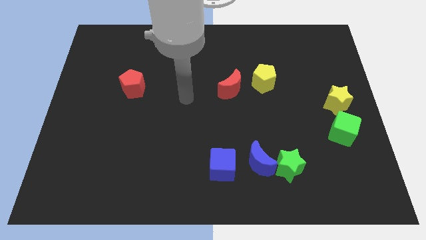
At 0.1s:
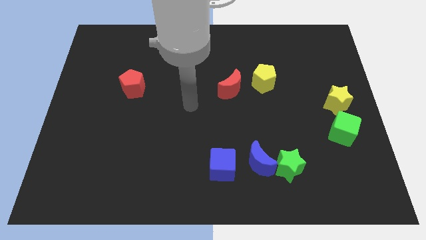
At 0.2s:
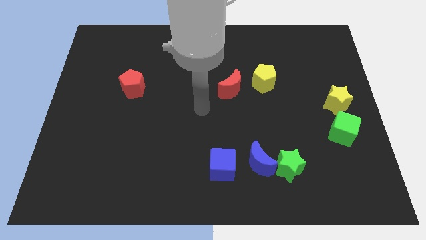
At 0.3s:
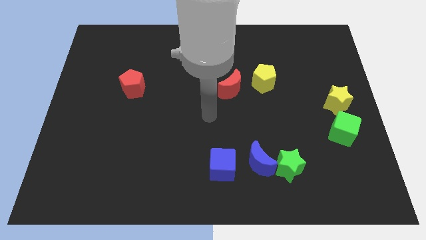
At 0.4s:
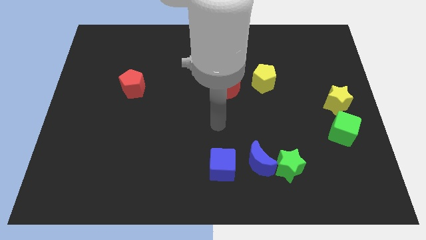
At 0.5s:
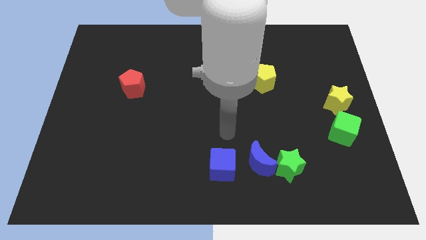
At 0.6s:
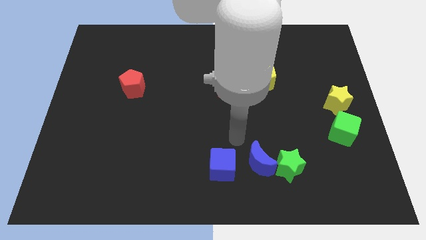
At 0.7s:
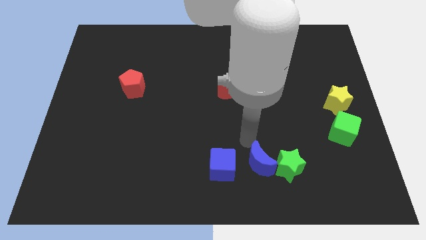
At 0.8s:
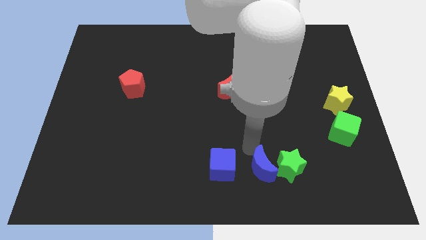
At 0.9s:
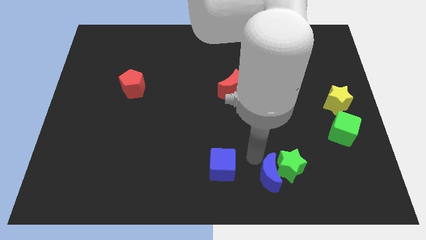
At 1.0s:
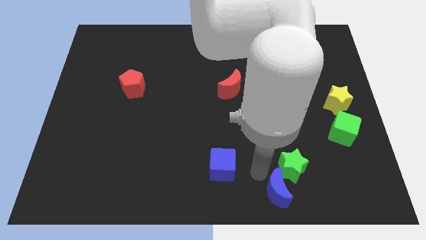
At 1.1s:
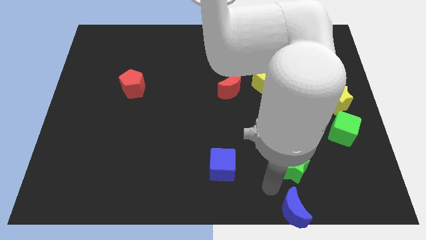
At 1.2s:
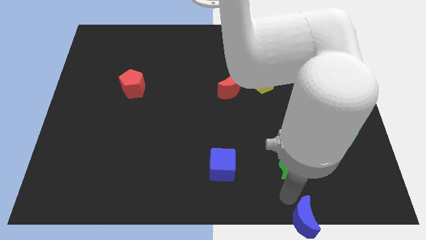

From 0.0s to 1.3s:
move the green star away from the blue moon

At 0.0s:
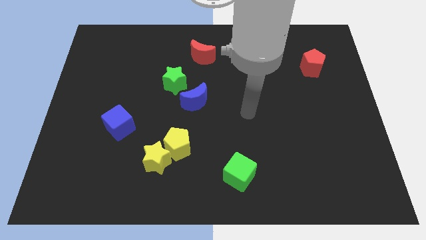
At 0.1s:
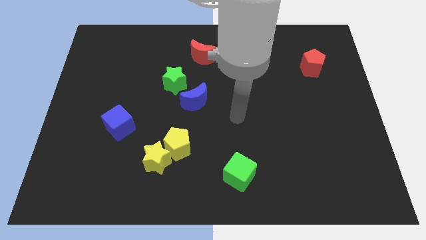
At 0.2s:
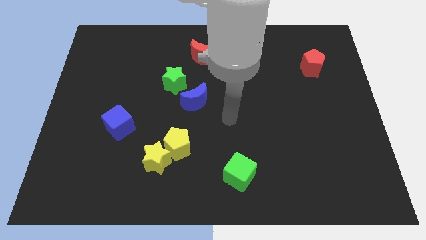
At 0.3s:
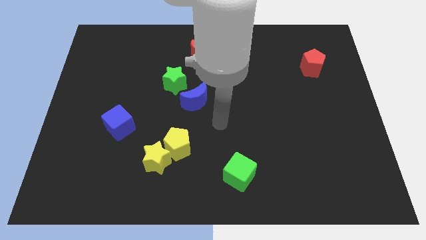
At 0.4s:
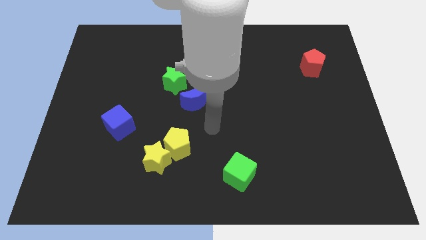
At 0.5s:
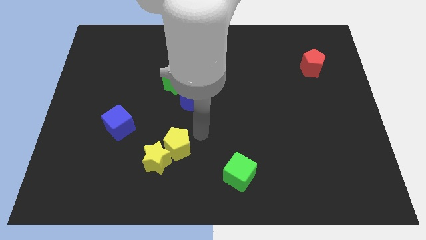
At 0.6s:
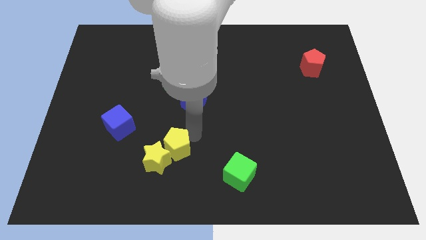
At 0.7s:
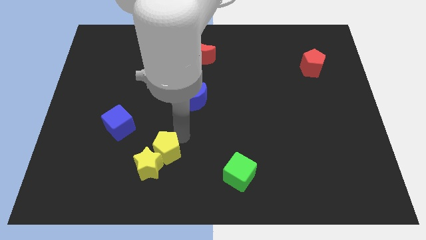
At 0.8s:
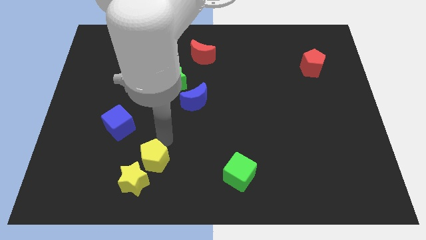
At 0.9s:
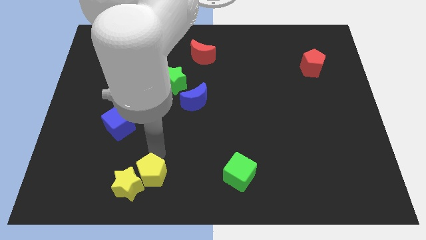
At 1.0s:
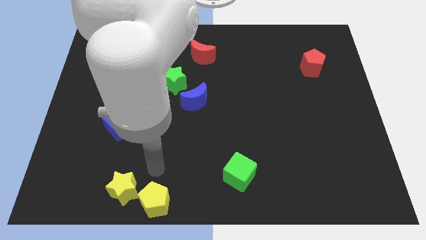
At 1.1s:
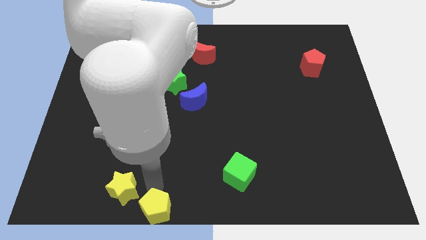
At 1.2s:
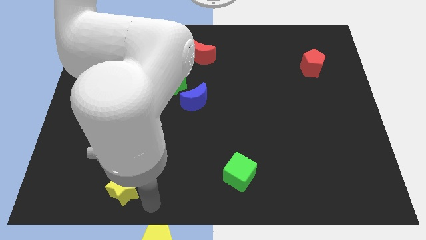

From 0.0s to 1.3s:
pull the yellow star apart from the yellow pentagon

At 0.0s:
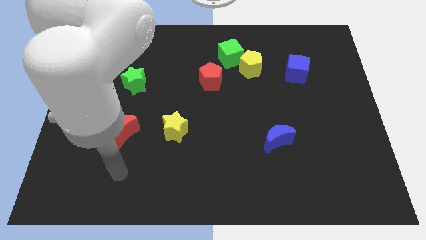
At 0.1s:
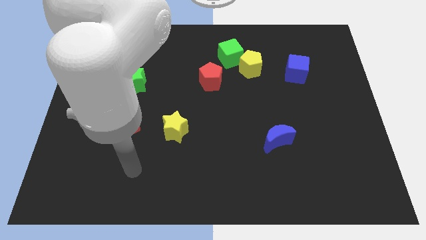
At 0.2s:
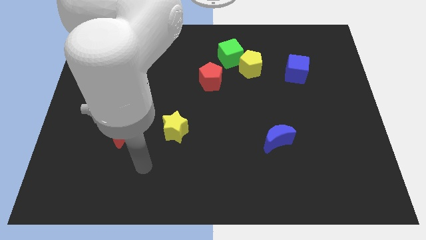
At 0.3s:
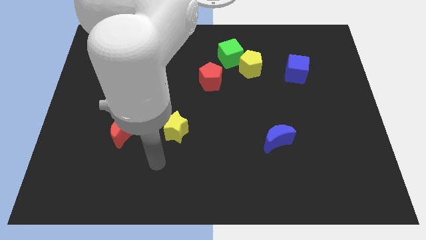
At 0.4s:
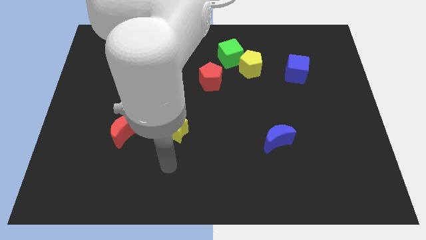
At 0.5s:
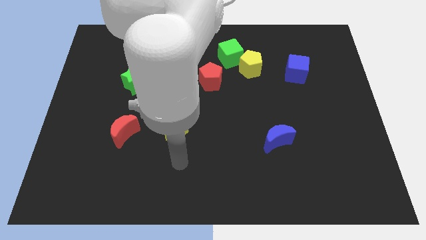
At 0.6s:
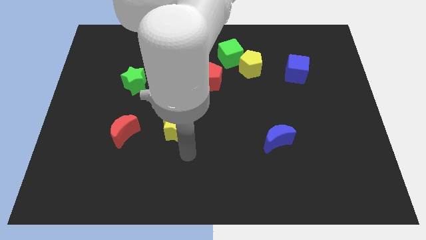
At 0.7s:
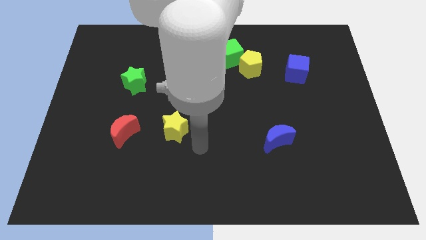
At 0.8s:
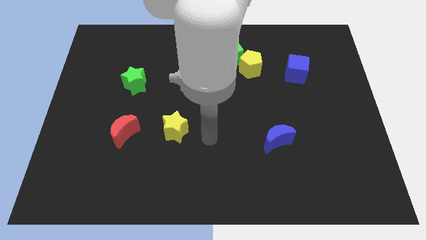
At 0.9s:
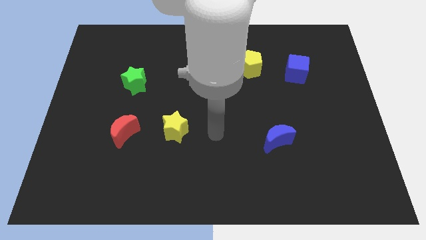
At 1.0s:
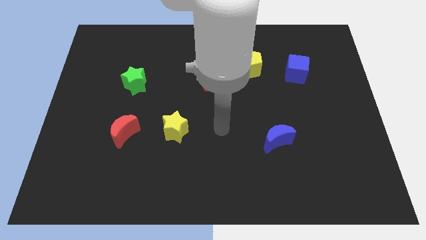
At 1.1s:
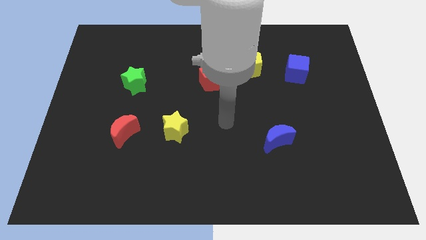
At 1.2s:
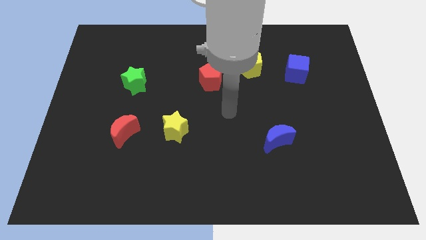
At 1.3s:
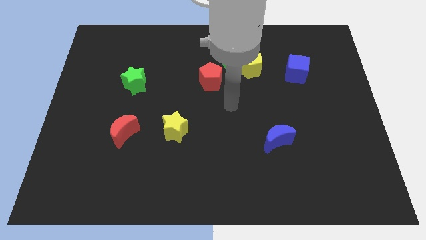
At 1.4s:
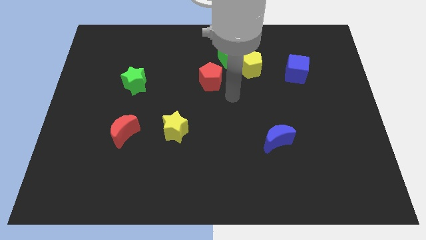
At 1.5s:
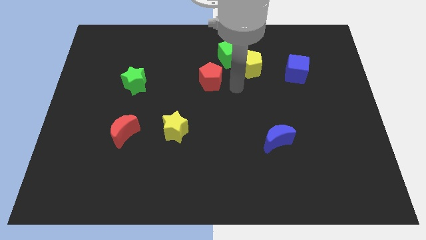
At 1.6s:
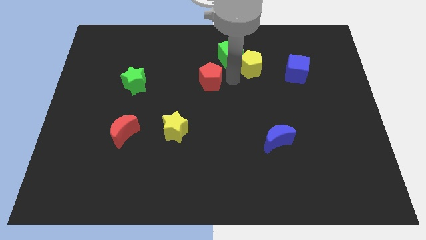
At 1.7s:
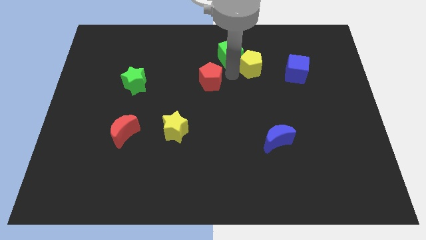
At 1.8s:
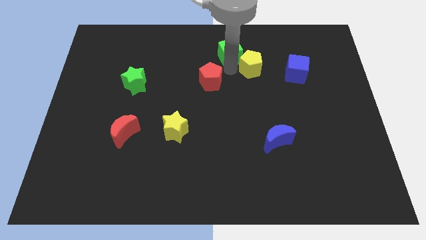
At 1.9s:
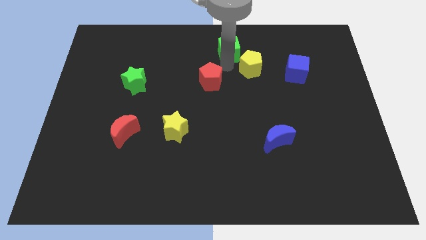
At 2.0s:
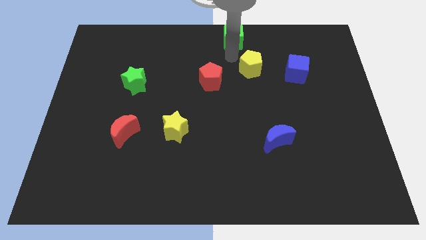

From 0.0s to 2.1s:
pull the yellow pentagon apart from the green cube

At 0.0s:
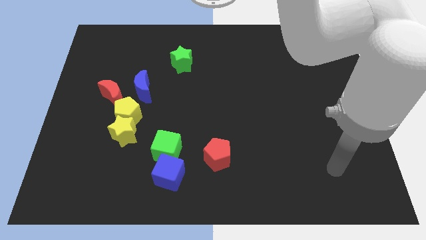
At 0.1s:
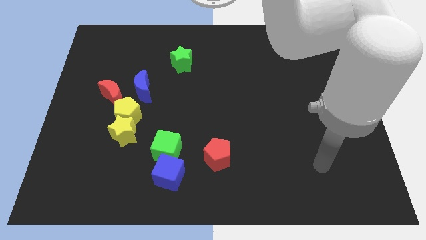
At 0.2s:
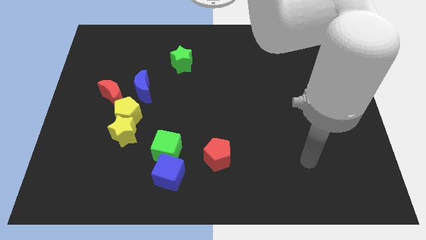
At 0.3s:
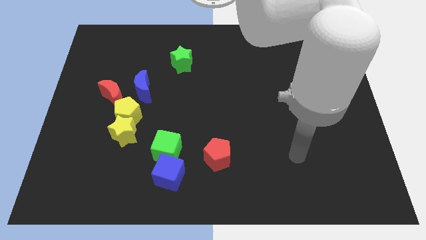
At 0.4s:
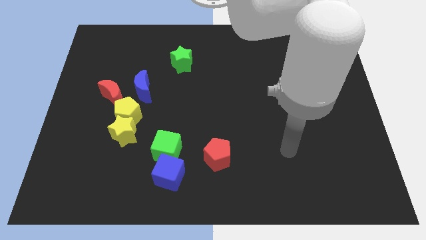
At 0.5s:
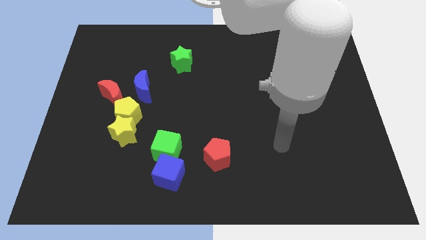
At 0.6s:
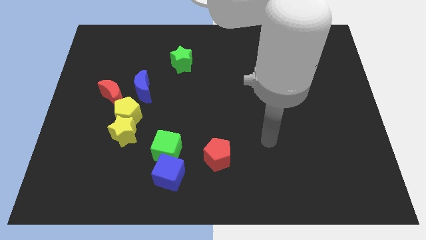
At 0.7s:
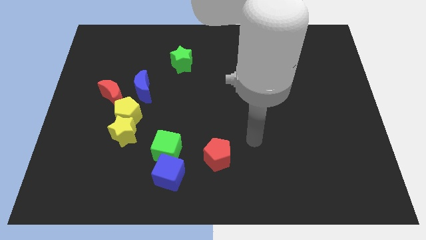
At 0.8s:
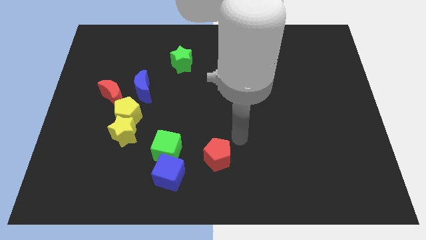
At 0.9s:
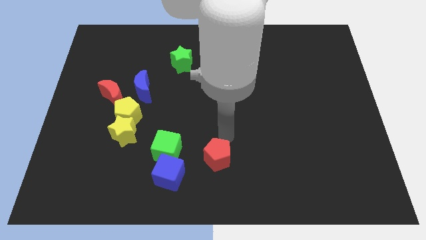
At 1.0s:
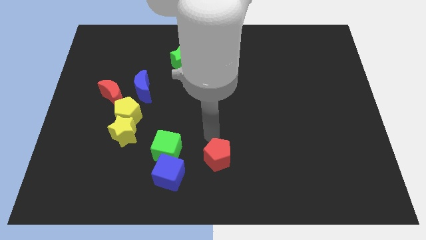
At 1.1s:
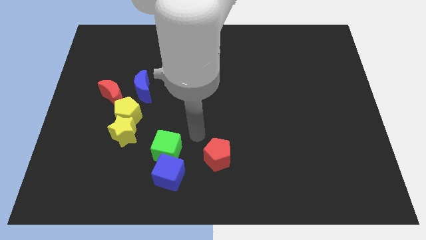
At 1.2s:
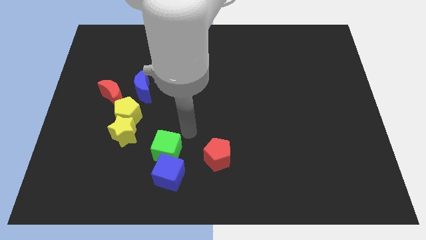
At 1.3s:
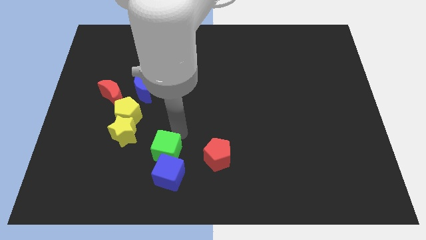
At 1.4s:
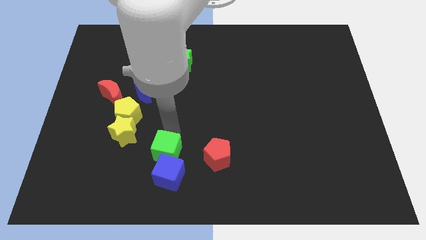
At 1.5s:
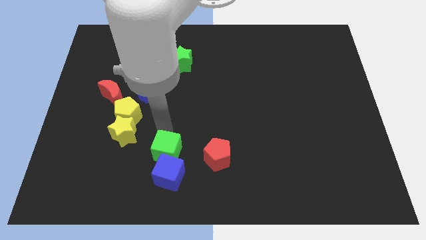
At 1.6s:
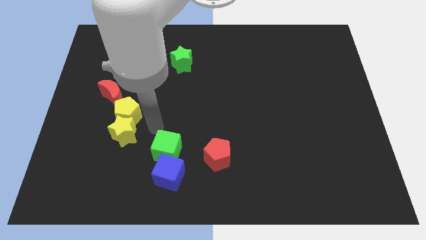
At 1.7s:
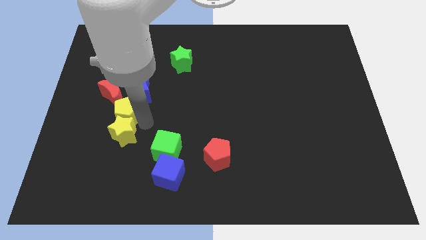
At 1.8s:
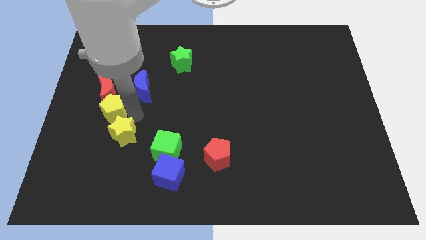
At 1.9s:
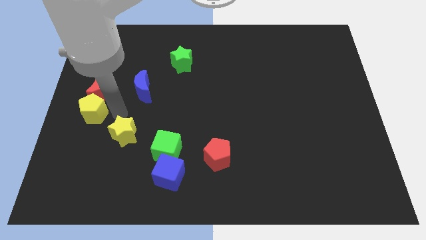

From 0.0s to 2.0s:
move the yellow star away from the yellow pentagon

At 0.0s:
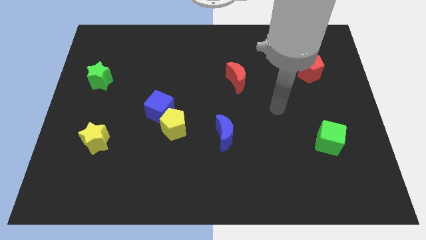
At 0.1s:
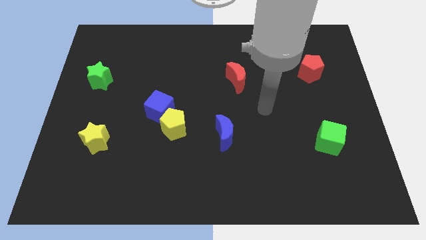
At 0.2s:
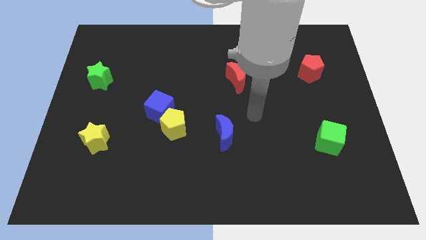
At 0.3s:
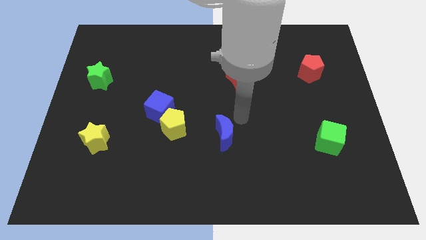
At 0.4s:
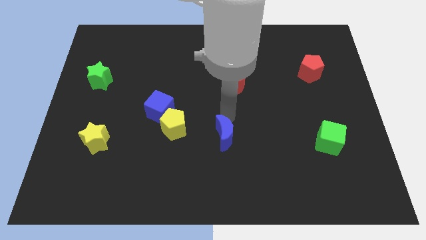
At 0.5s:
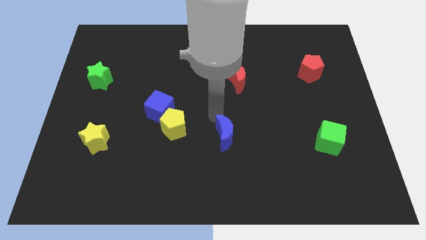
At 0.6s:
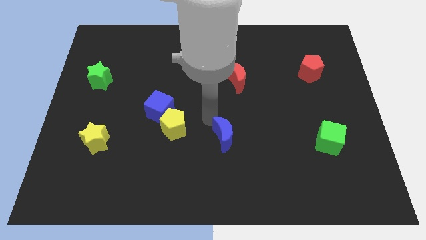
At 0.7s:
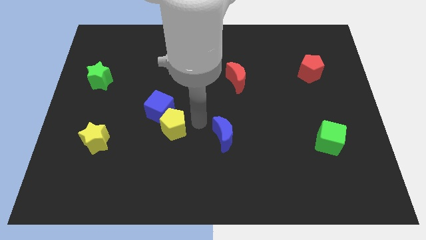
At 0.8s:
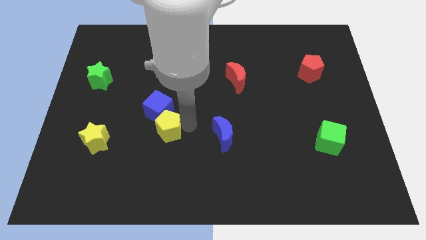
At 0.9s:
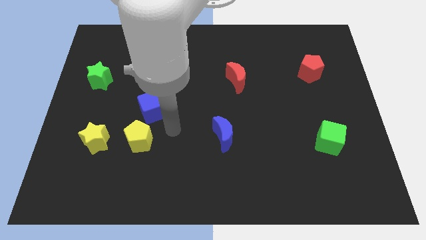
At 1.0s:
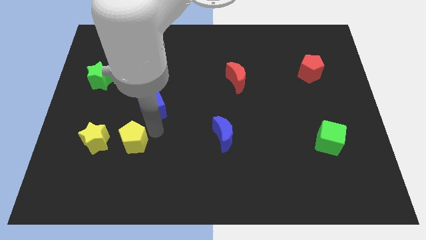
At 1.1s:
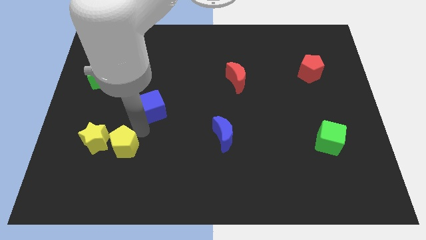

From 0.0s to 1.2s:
move the blue cube away from the yellow pentagon

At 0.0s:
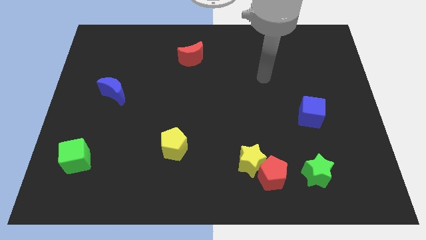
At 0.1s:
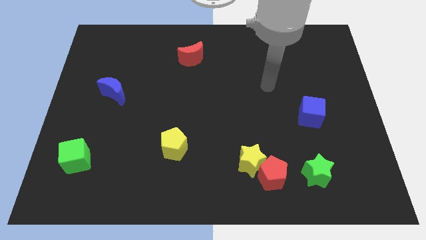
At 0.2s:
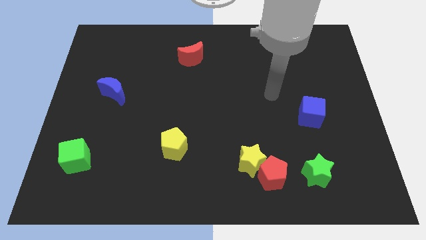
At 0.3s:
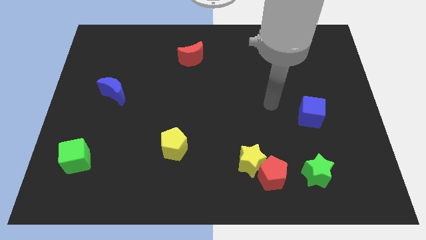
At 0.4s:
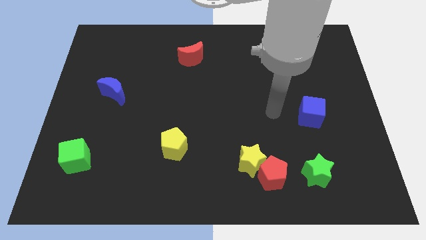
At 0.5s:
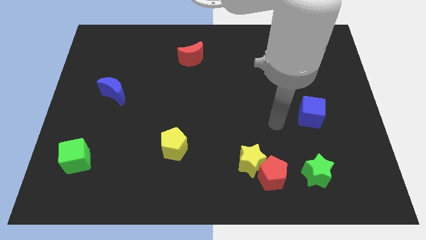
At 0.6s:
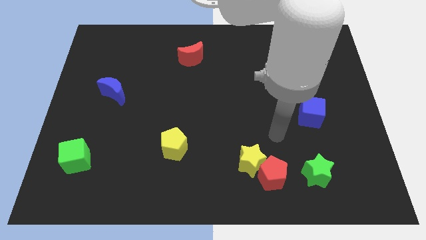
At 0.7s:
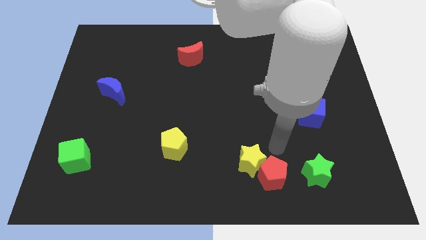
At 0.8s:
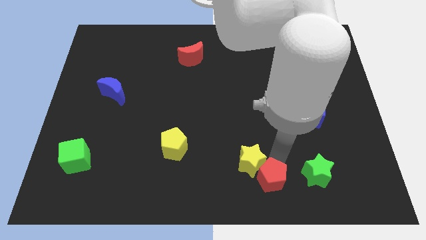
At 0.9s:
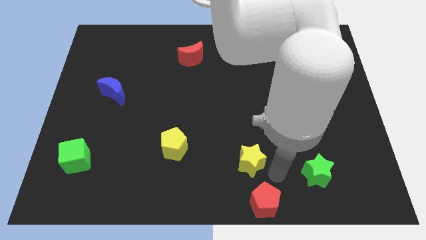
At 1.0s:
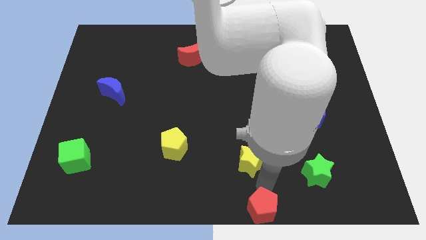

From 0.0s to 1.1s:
separate the yellow star from the red pentagon

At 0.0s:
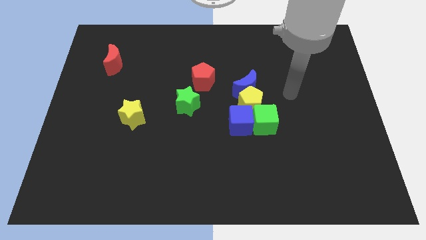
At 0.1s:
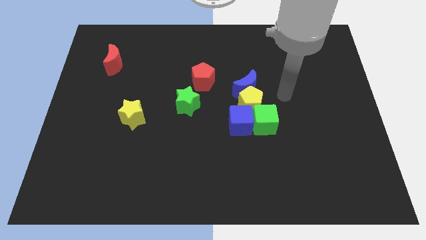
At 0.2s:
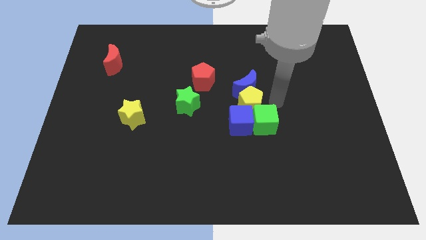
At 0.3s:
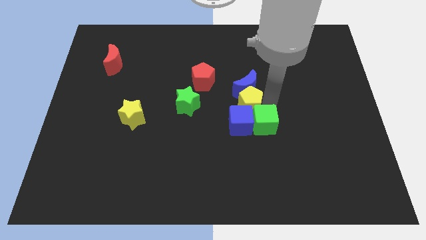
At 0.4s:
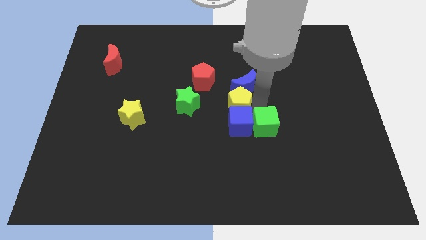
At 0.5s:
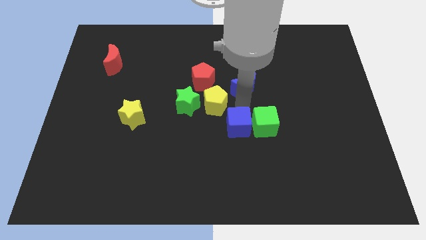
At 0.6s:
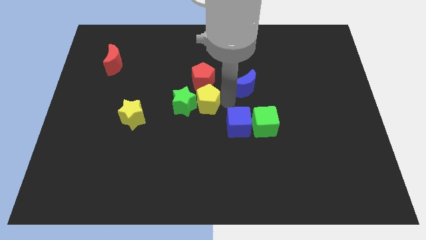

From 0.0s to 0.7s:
separate the blue moon from the yellow pentagon
